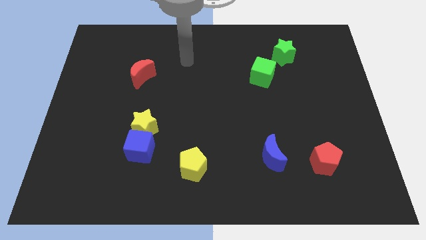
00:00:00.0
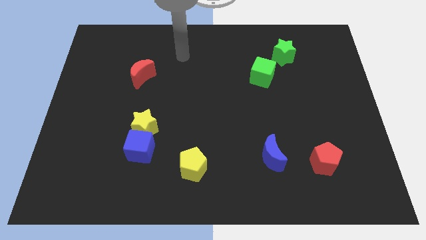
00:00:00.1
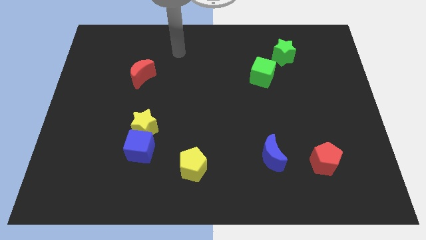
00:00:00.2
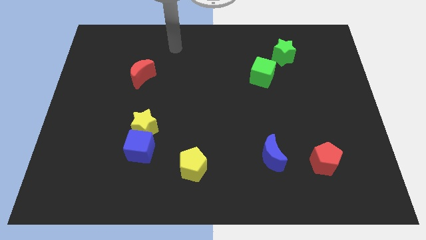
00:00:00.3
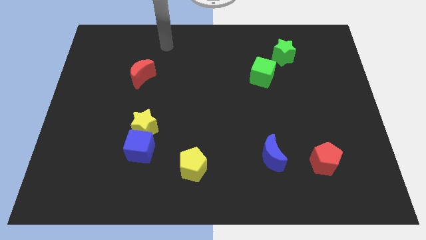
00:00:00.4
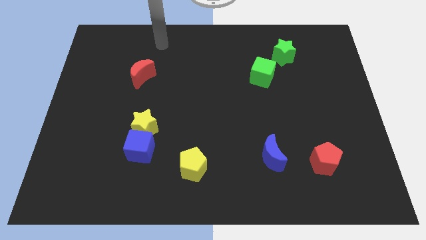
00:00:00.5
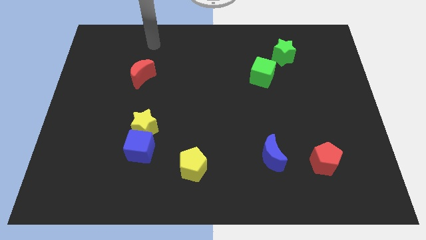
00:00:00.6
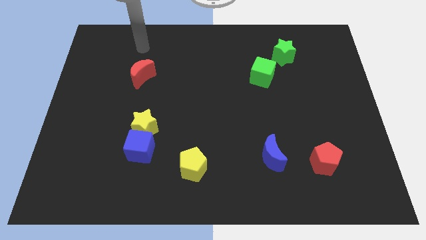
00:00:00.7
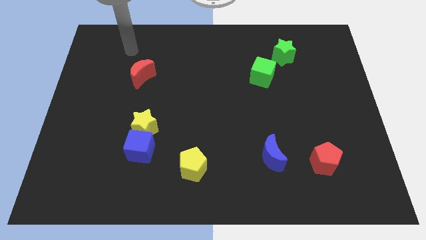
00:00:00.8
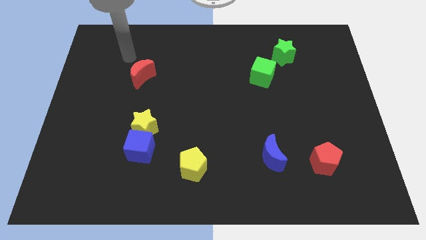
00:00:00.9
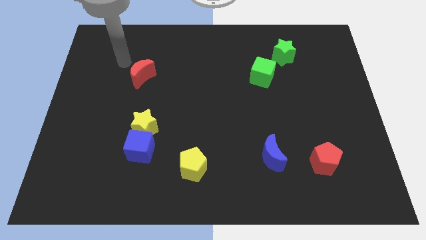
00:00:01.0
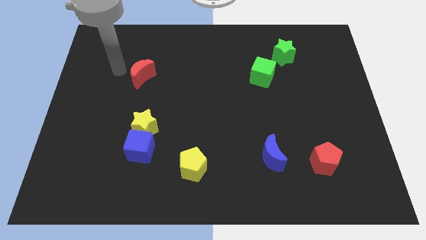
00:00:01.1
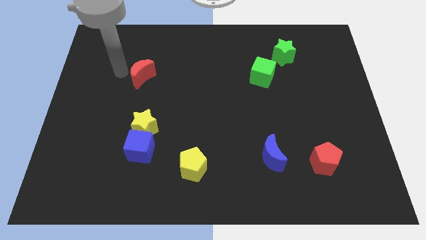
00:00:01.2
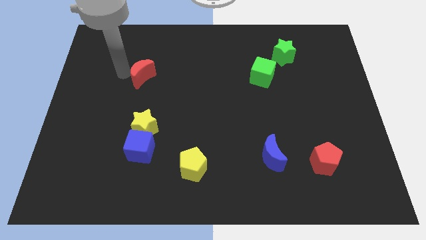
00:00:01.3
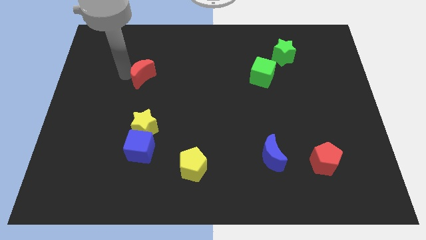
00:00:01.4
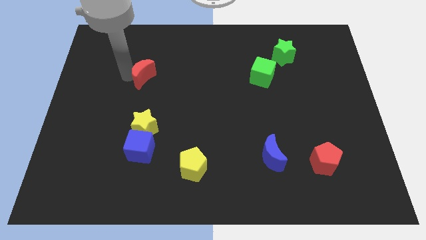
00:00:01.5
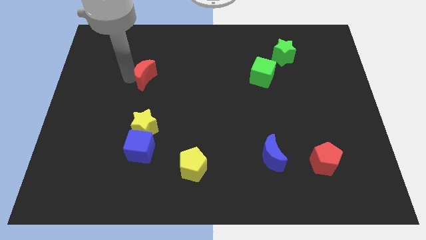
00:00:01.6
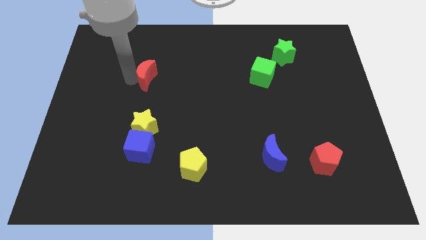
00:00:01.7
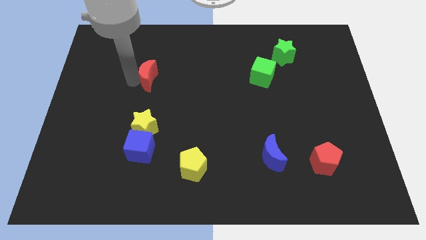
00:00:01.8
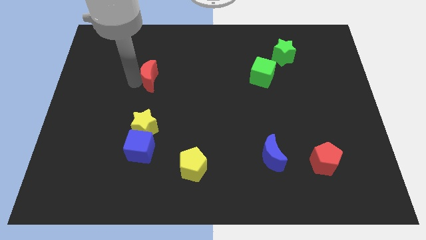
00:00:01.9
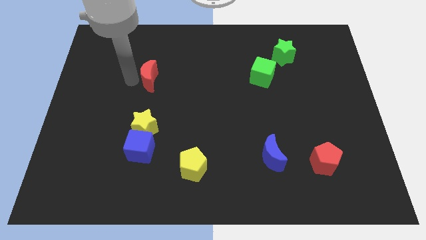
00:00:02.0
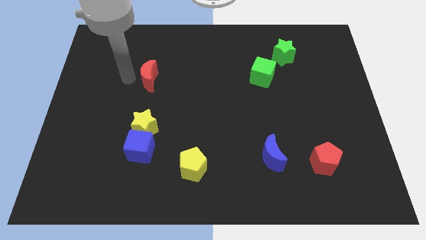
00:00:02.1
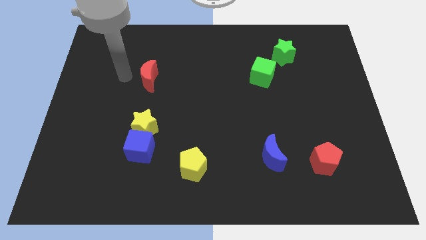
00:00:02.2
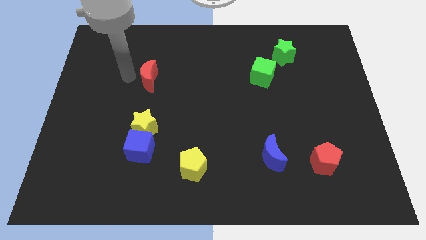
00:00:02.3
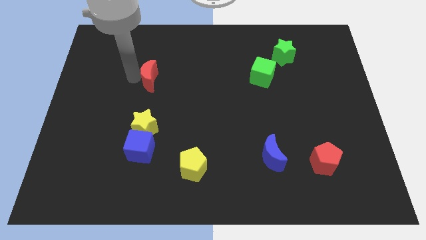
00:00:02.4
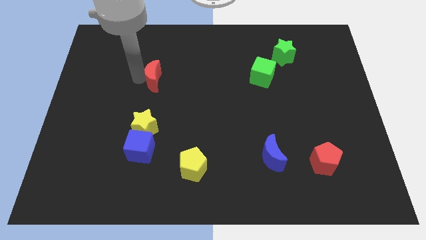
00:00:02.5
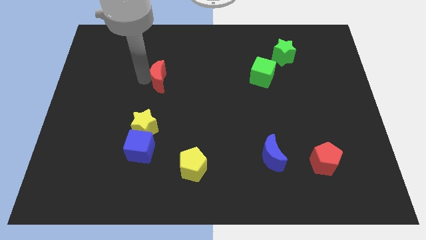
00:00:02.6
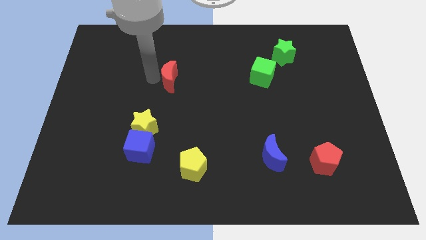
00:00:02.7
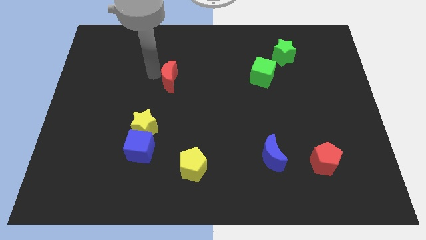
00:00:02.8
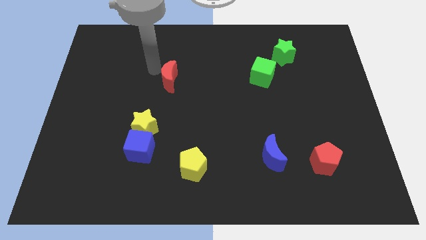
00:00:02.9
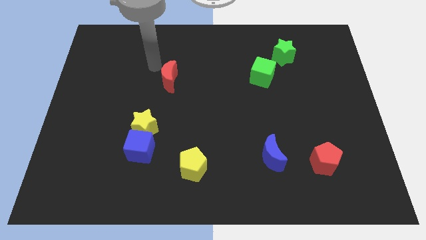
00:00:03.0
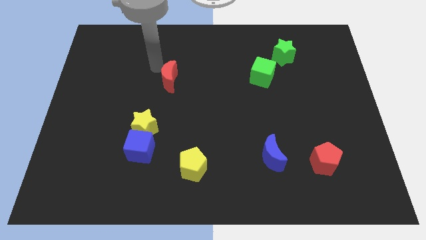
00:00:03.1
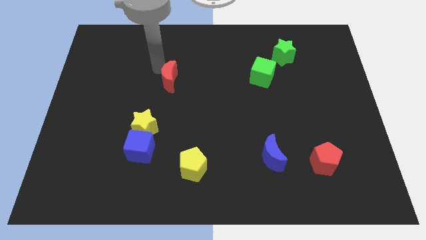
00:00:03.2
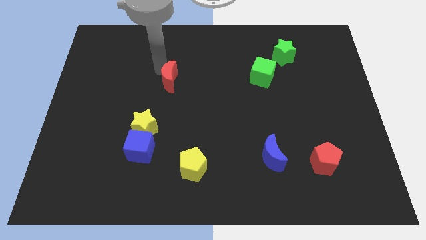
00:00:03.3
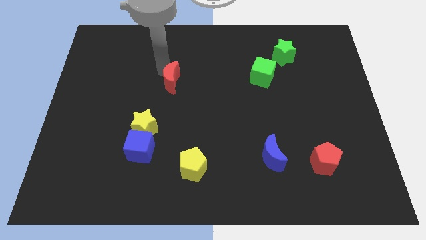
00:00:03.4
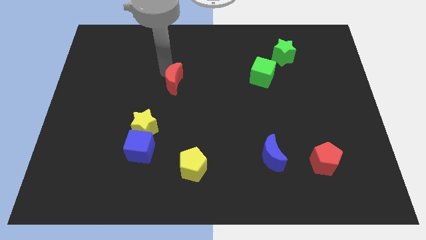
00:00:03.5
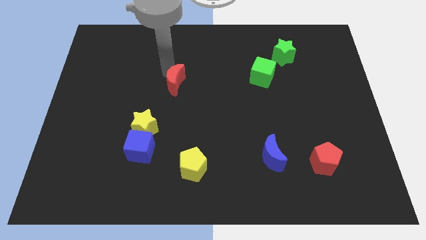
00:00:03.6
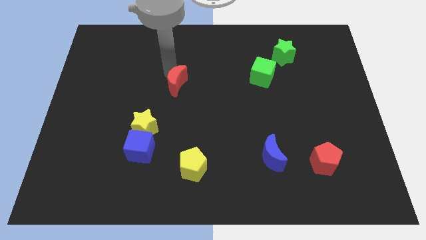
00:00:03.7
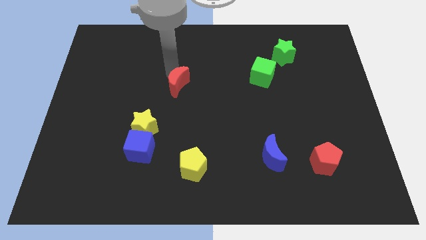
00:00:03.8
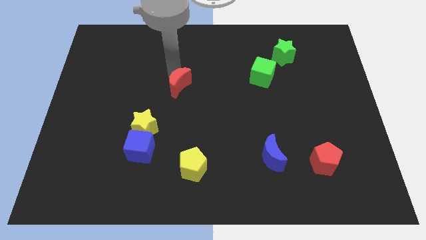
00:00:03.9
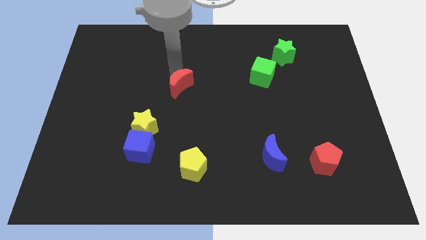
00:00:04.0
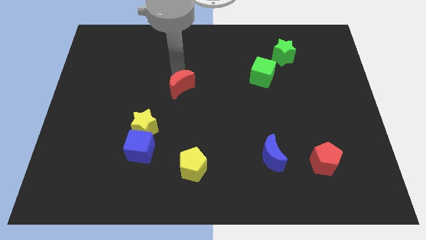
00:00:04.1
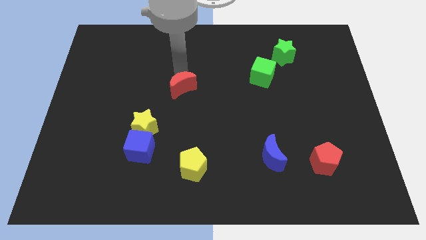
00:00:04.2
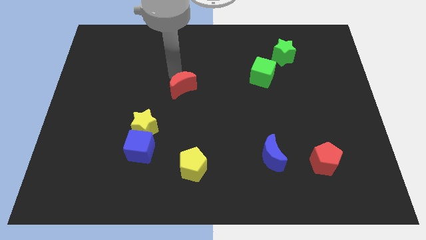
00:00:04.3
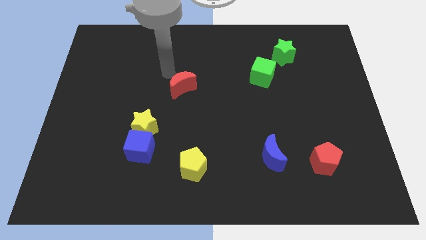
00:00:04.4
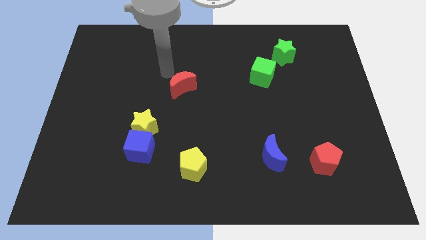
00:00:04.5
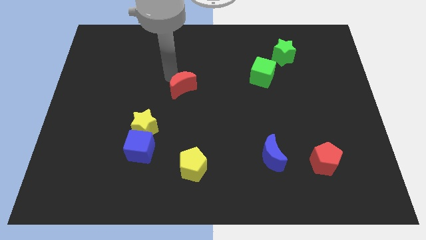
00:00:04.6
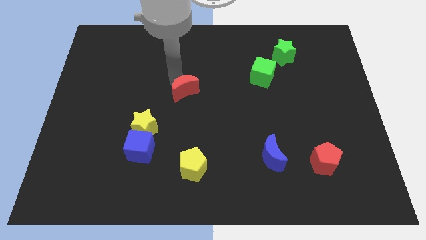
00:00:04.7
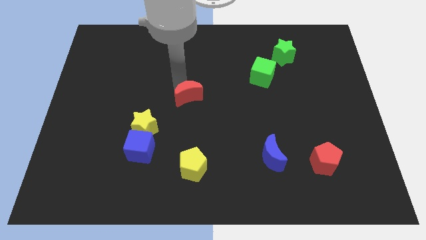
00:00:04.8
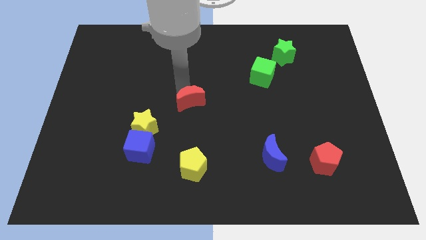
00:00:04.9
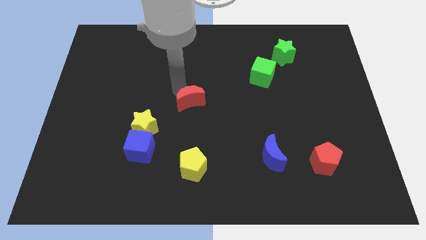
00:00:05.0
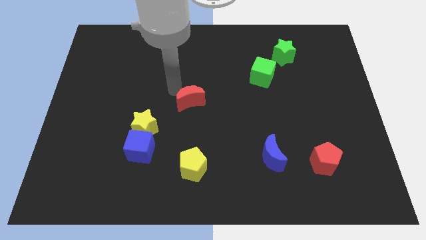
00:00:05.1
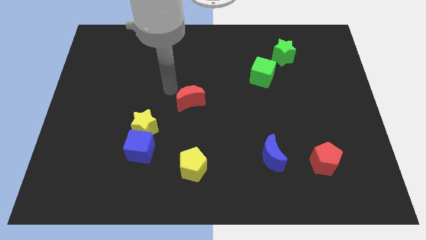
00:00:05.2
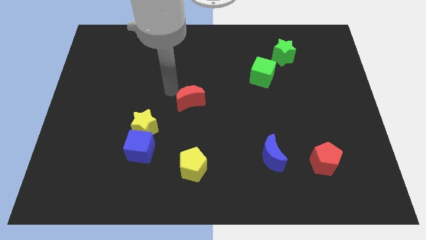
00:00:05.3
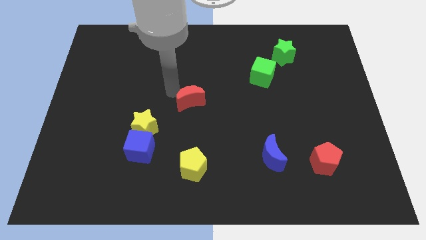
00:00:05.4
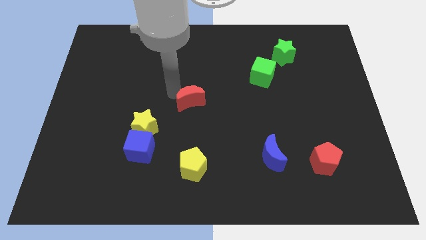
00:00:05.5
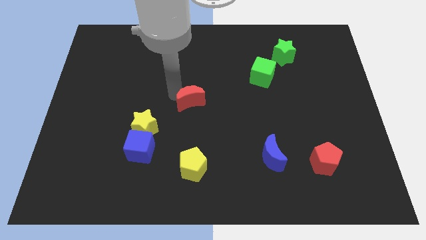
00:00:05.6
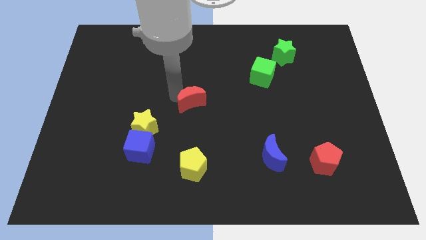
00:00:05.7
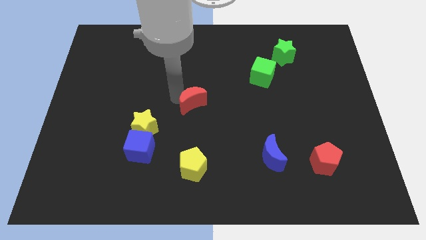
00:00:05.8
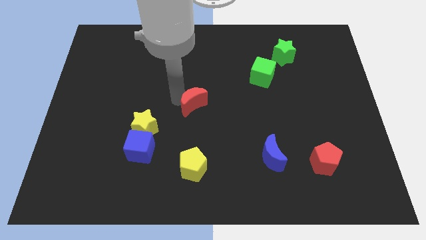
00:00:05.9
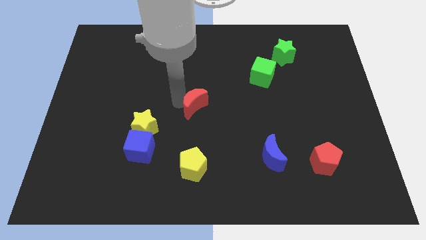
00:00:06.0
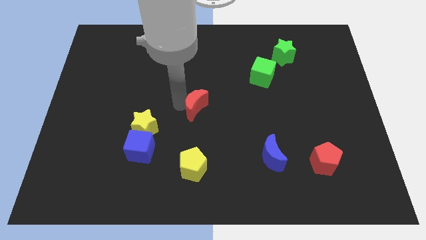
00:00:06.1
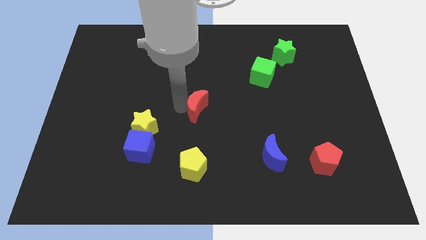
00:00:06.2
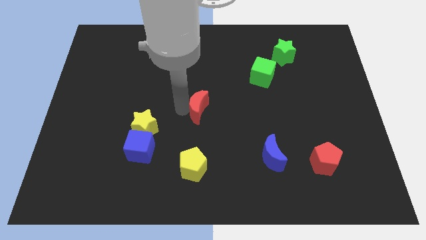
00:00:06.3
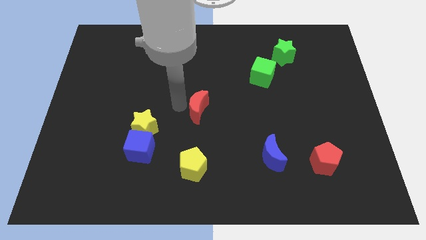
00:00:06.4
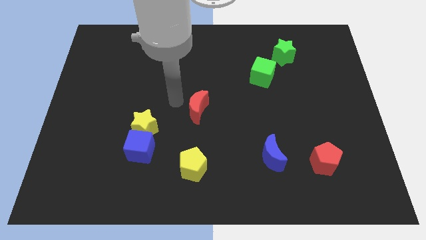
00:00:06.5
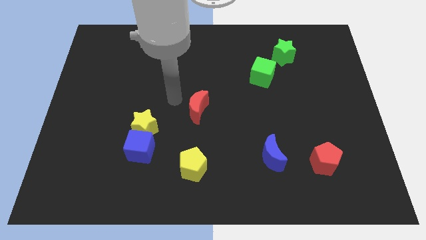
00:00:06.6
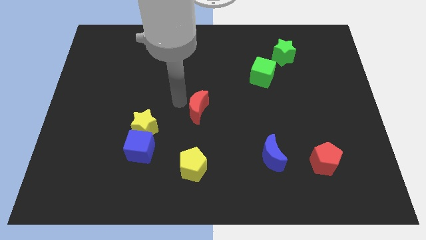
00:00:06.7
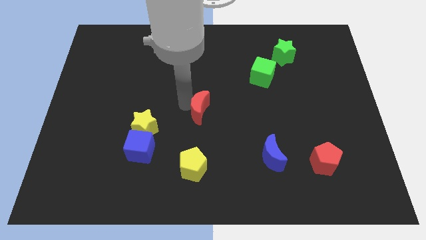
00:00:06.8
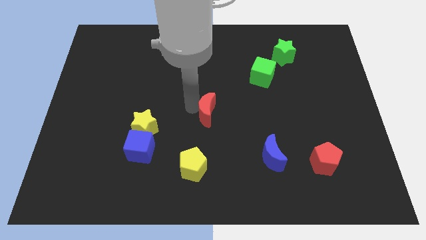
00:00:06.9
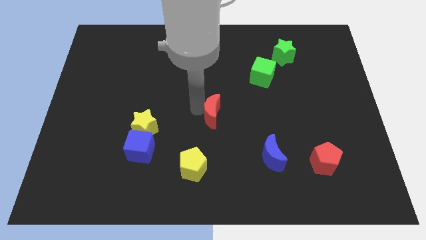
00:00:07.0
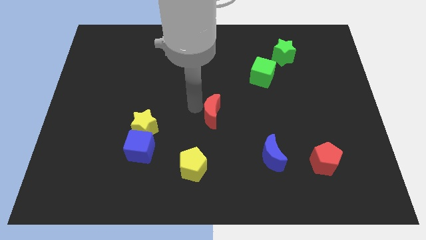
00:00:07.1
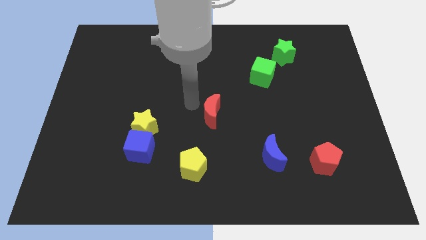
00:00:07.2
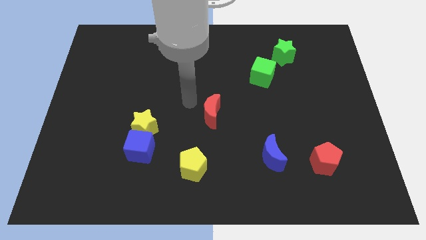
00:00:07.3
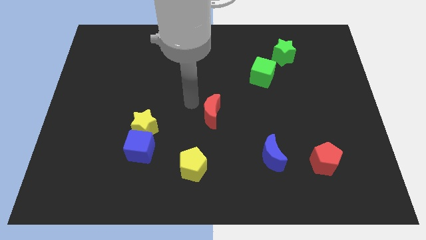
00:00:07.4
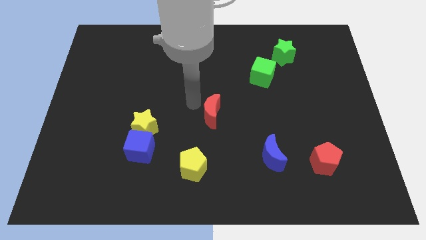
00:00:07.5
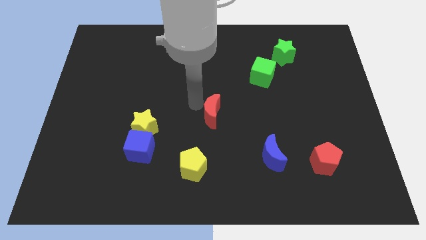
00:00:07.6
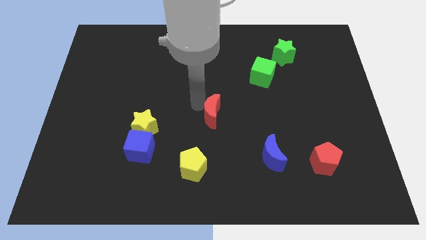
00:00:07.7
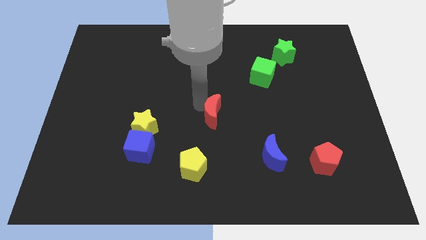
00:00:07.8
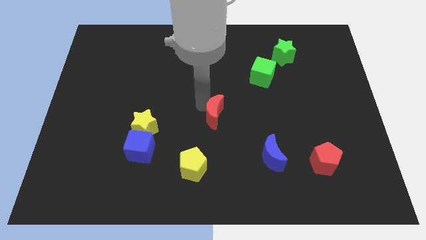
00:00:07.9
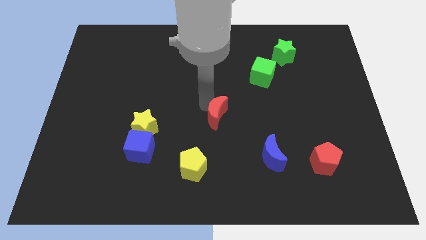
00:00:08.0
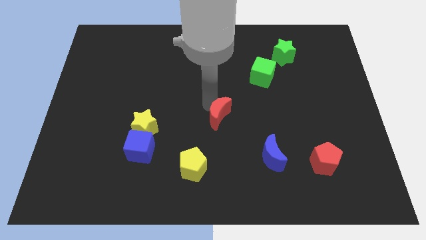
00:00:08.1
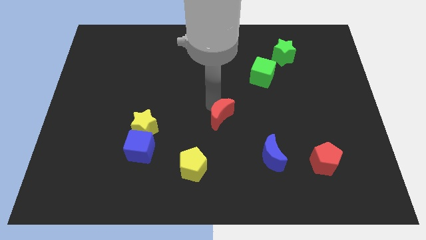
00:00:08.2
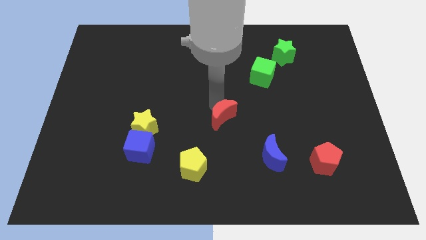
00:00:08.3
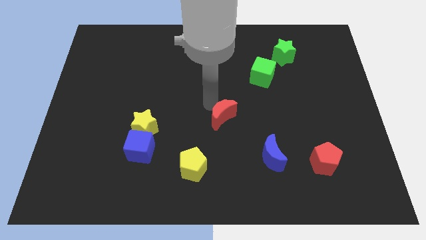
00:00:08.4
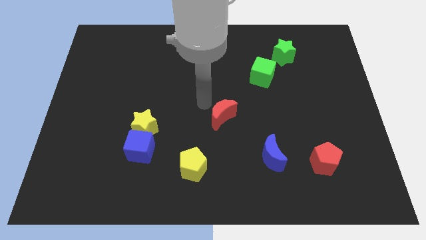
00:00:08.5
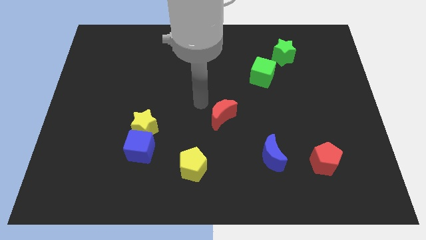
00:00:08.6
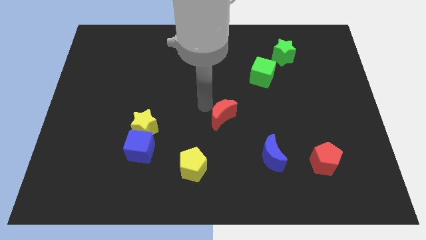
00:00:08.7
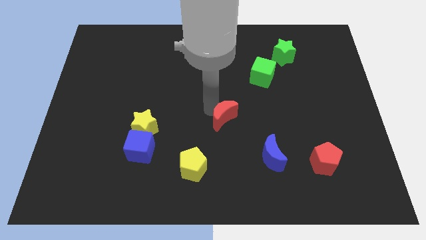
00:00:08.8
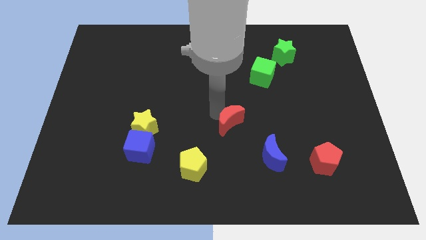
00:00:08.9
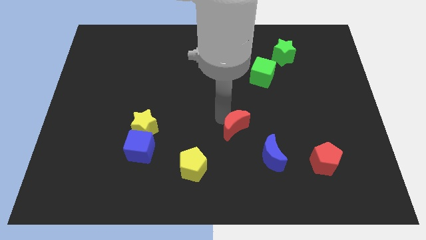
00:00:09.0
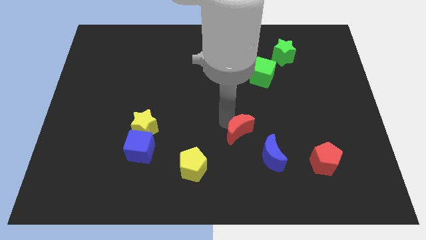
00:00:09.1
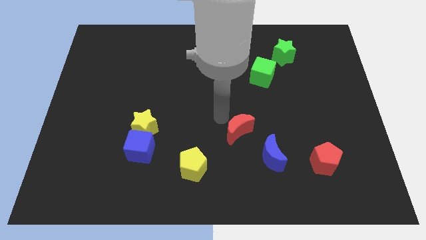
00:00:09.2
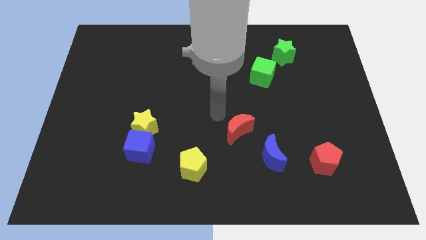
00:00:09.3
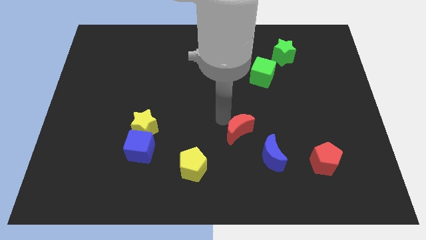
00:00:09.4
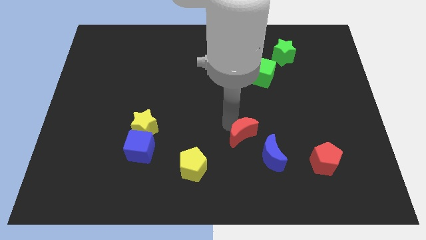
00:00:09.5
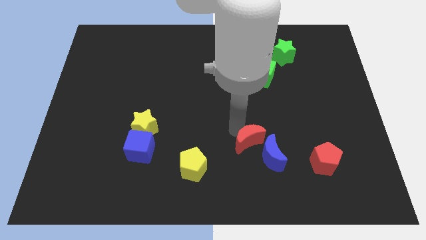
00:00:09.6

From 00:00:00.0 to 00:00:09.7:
move the red moon towards the blue moon
